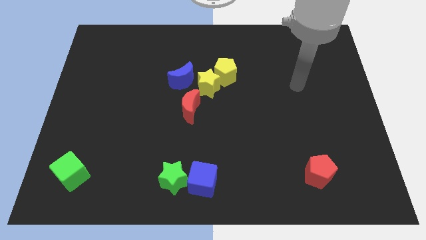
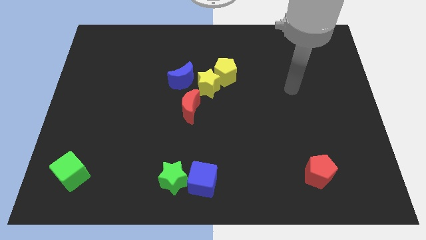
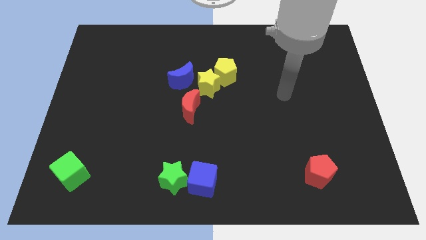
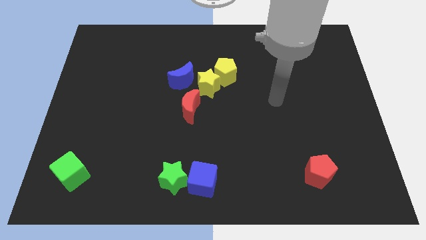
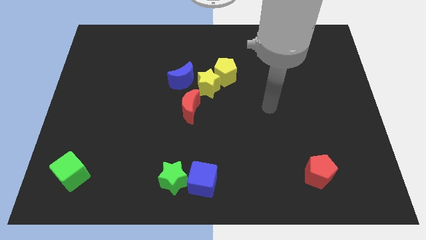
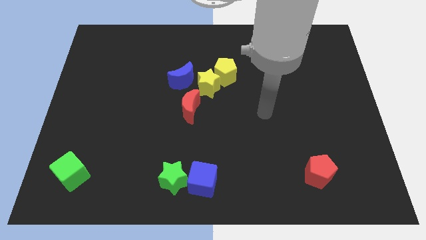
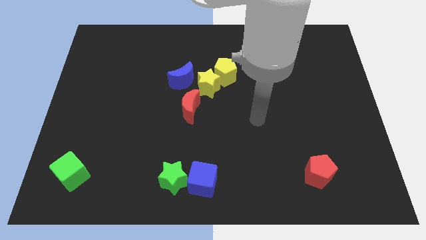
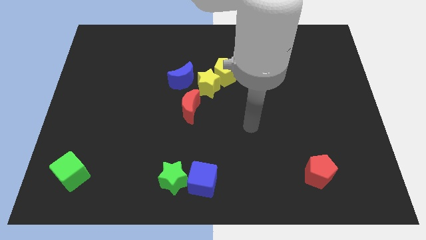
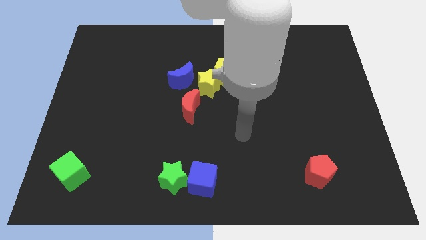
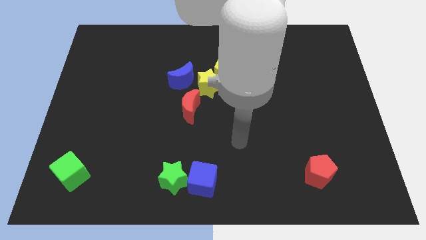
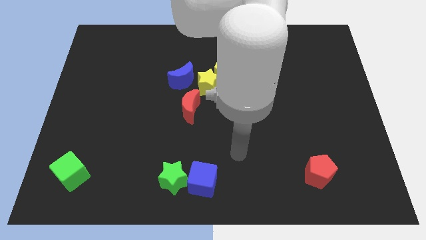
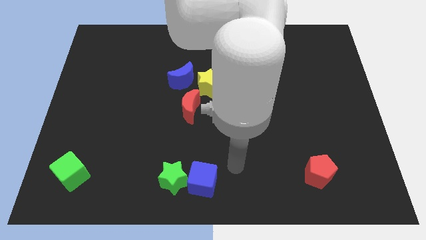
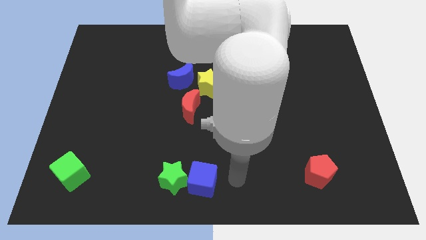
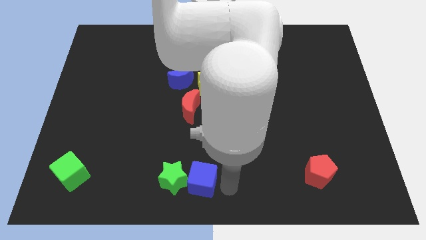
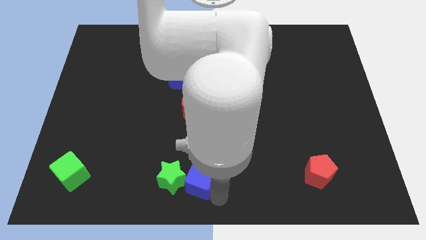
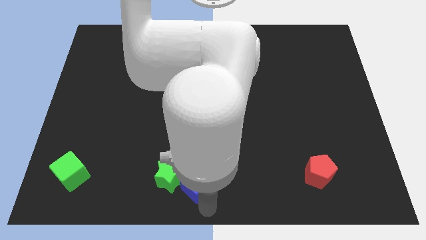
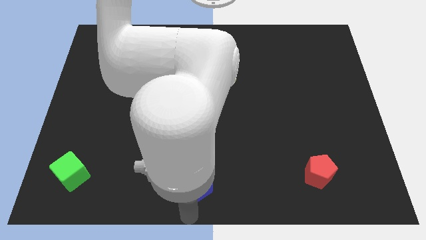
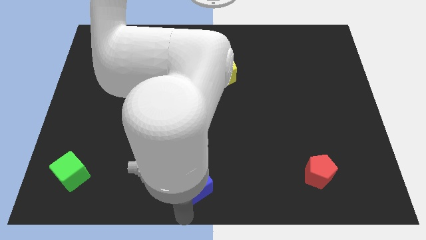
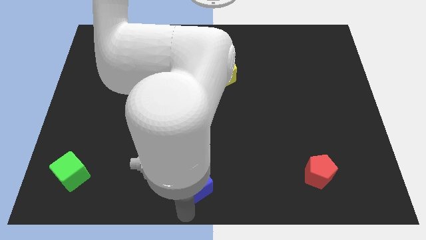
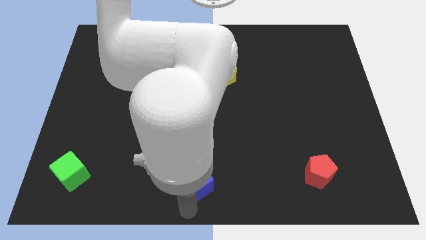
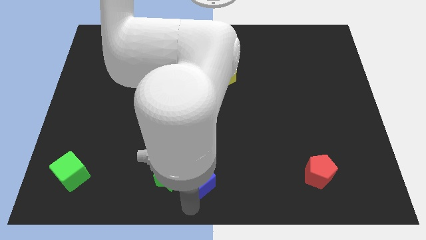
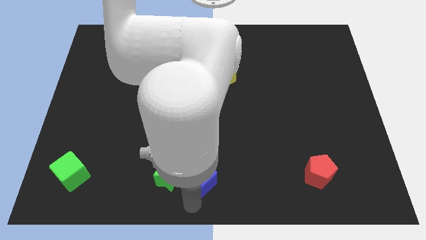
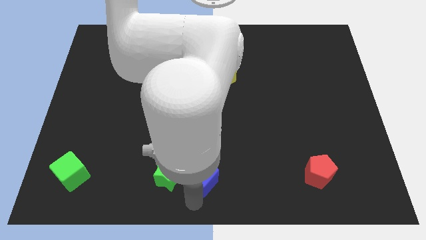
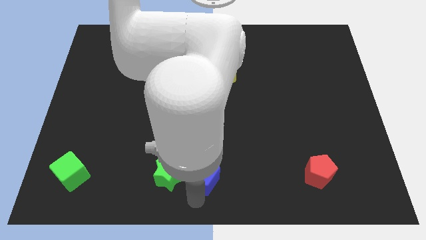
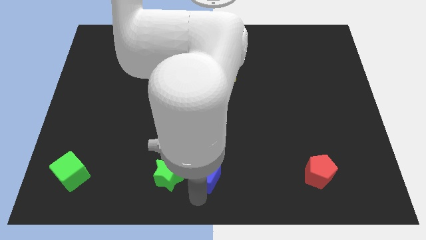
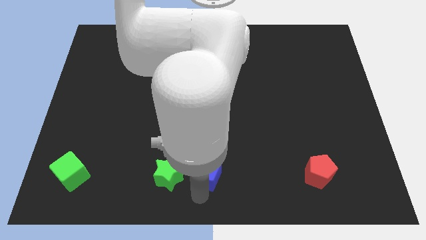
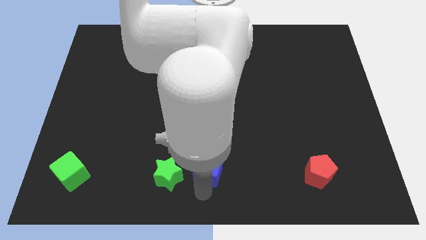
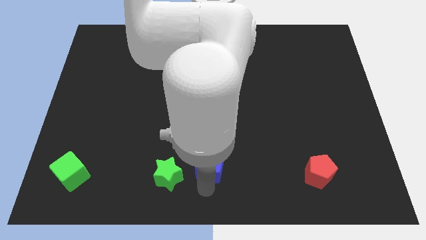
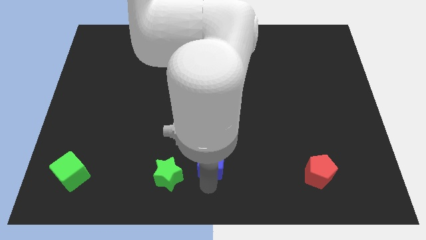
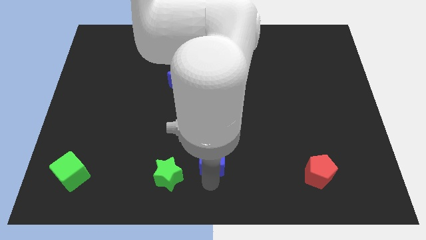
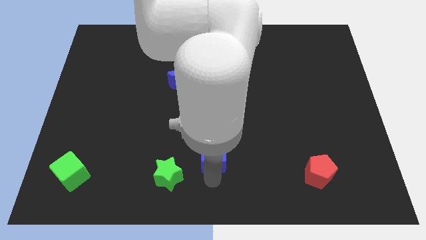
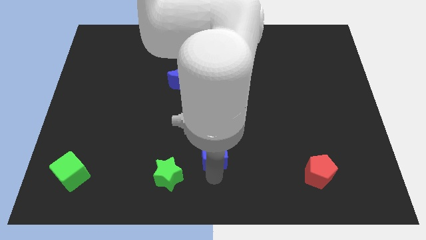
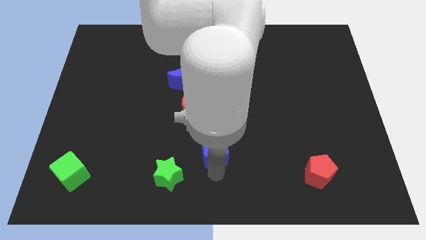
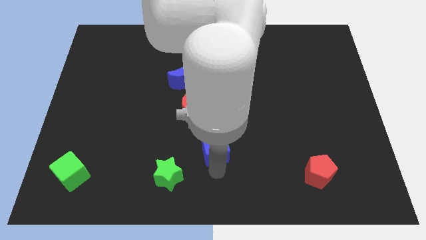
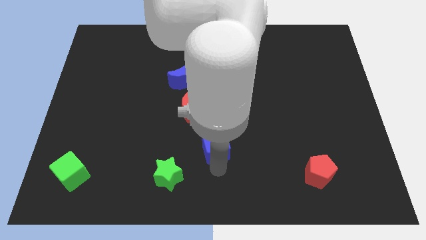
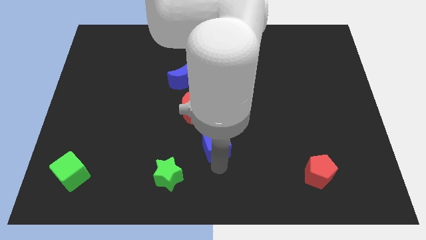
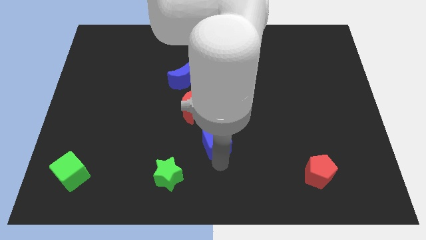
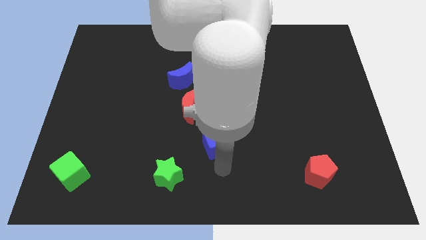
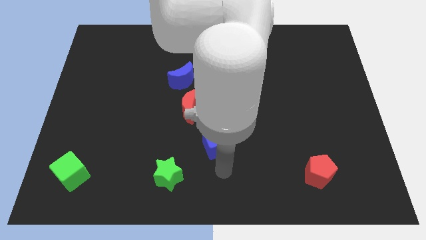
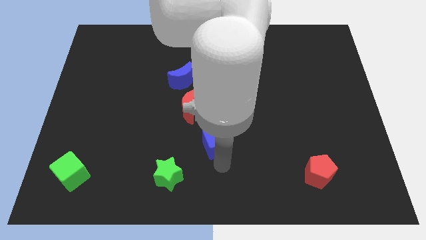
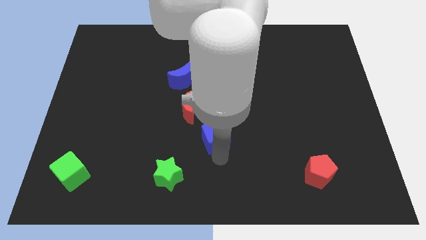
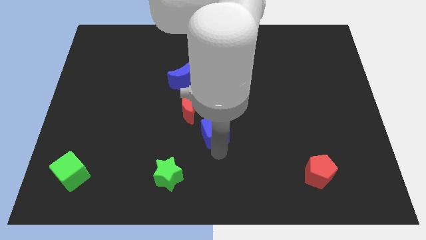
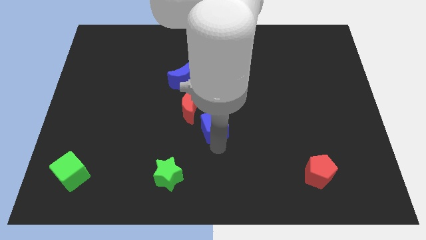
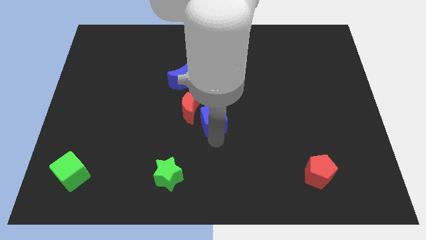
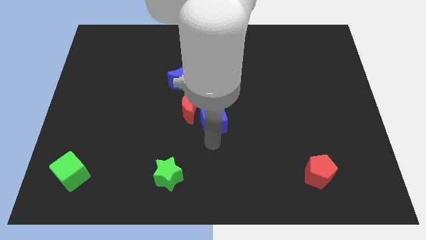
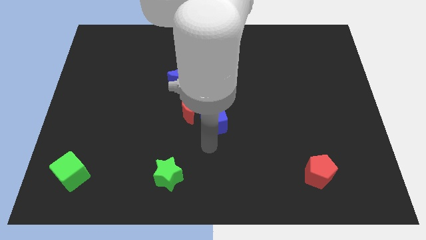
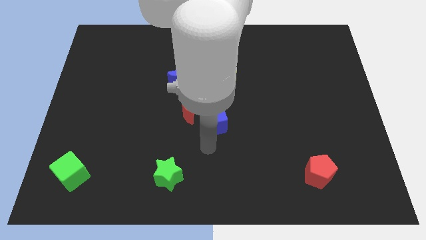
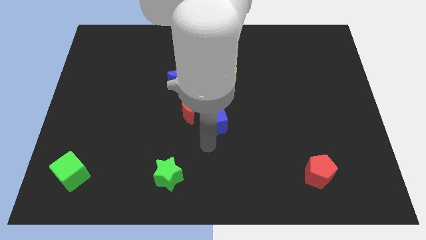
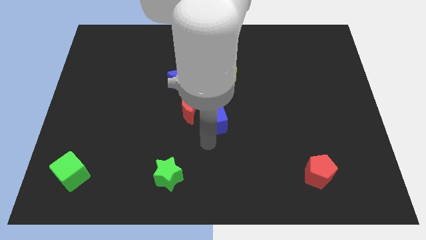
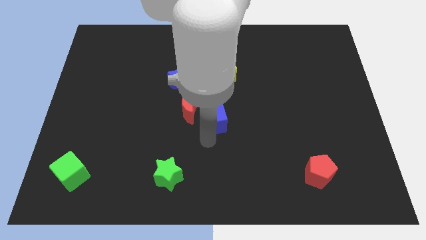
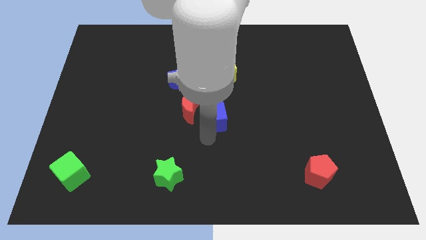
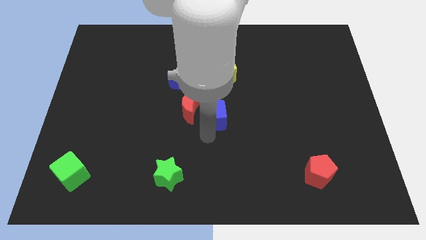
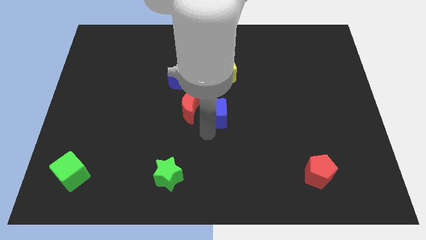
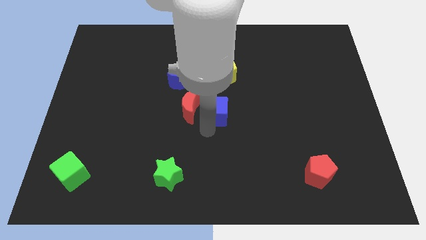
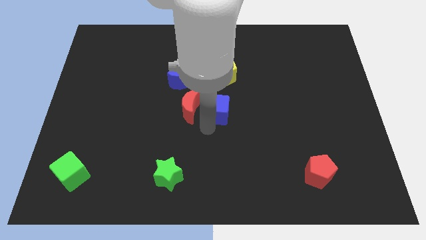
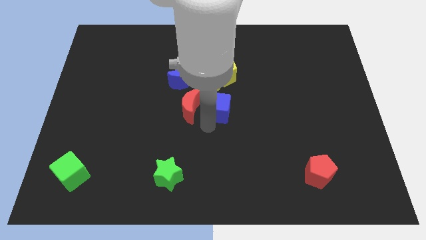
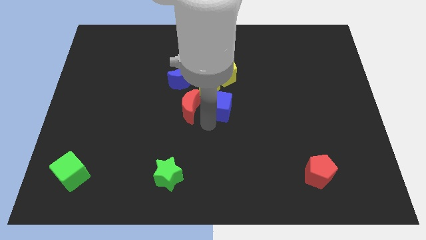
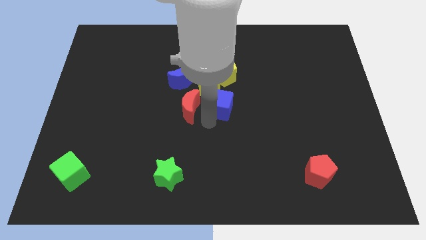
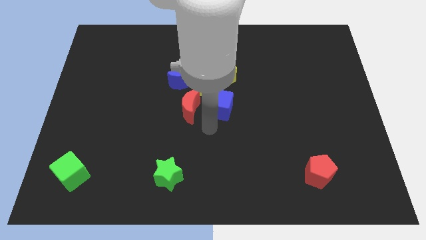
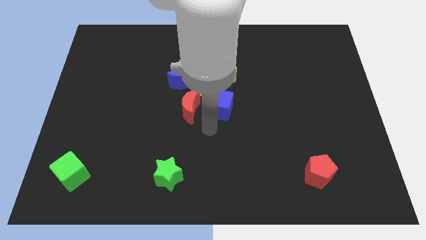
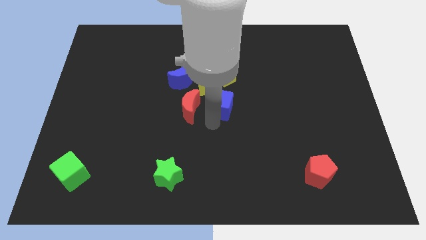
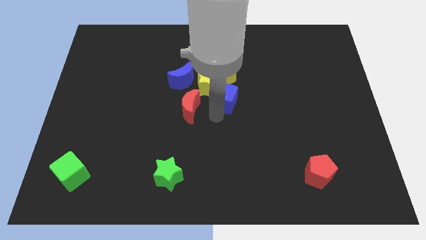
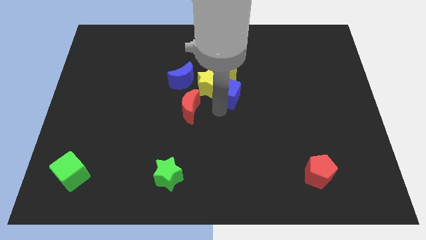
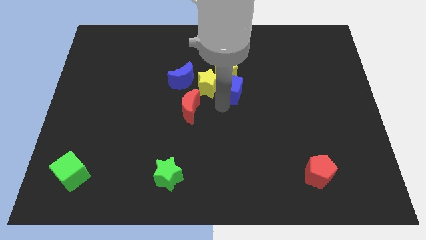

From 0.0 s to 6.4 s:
move the blue cube towards the yellow pentagon
